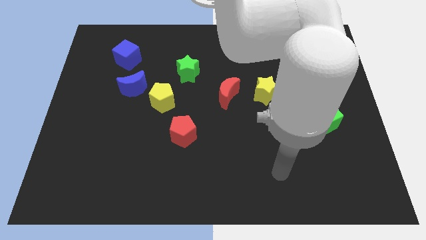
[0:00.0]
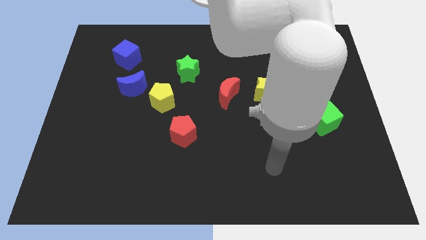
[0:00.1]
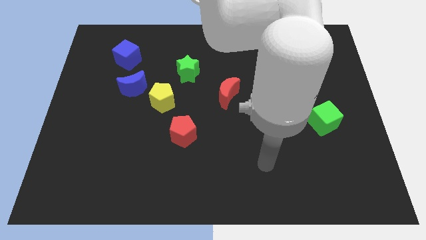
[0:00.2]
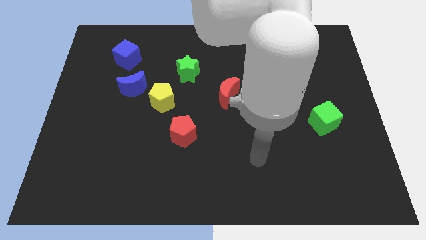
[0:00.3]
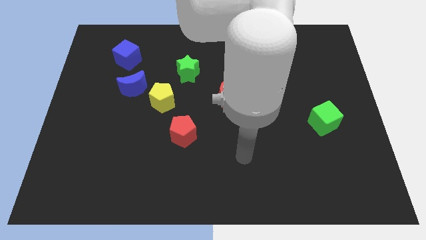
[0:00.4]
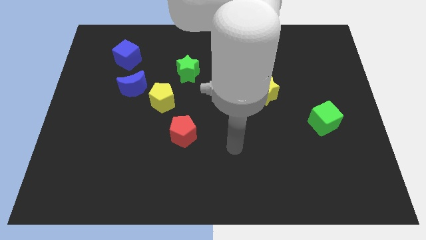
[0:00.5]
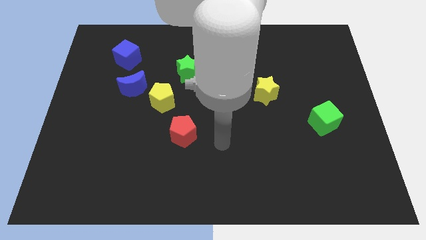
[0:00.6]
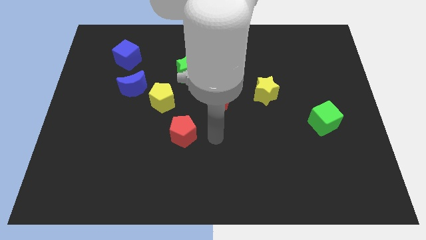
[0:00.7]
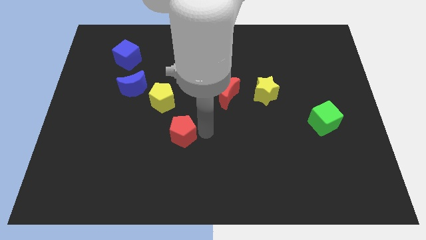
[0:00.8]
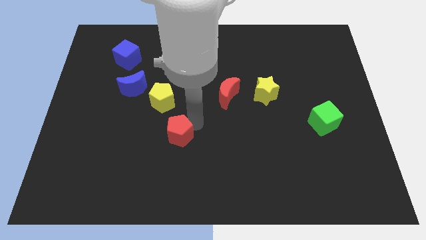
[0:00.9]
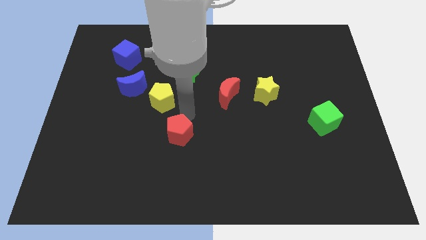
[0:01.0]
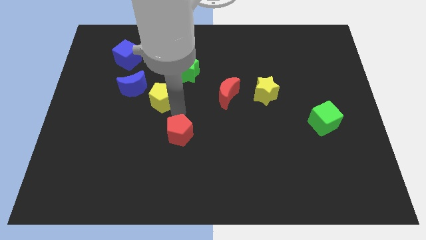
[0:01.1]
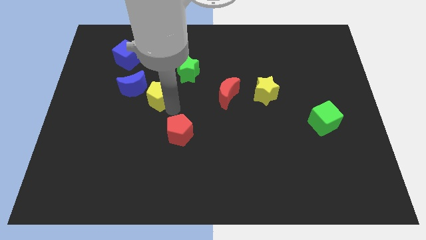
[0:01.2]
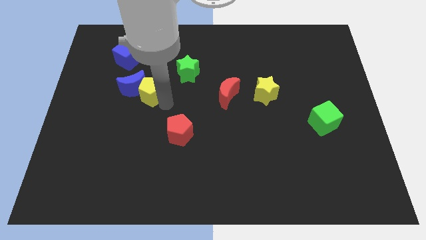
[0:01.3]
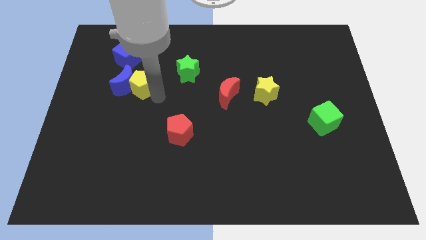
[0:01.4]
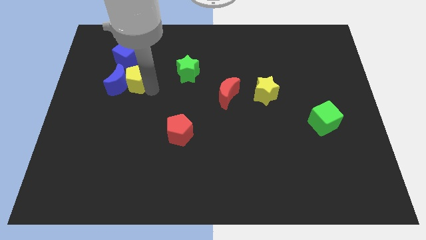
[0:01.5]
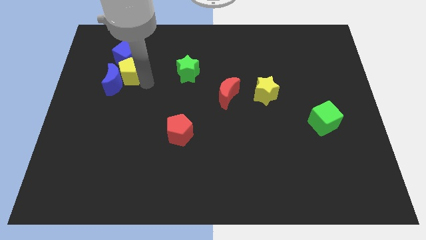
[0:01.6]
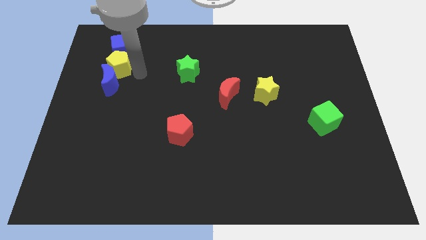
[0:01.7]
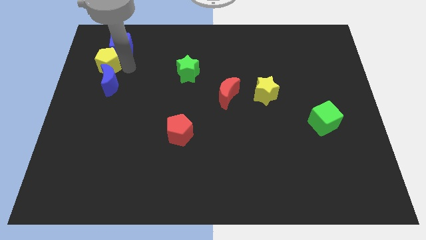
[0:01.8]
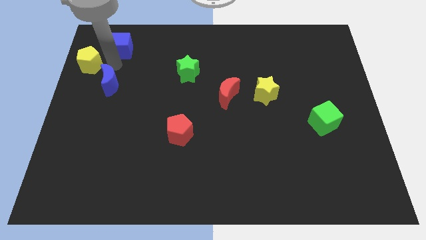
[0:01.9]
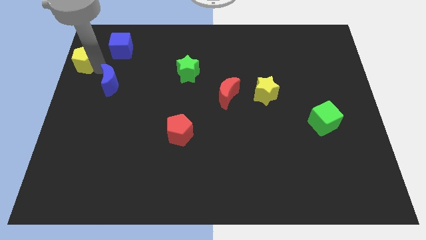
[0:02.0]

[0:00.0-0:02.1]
pull the blue moon apart from the yellow pentagon

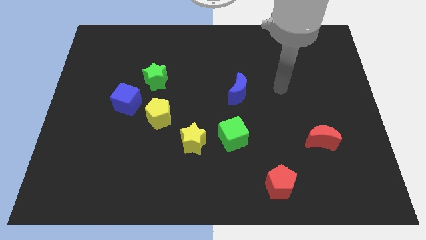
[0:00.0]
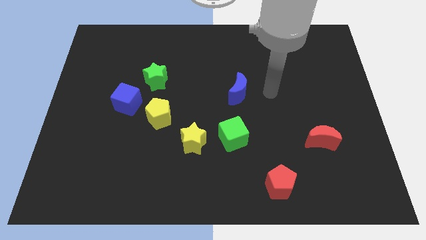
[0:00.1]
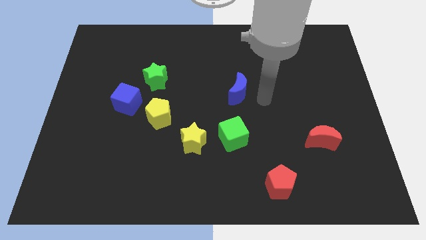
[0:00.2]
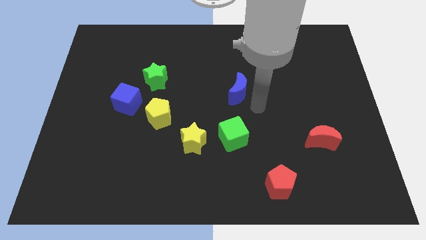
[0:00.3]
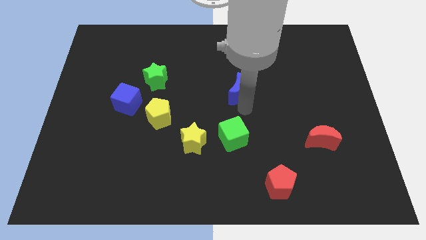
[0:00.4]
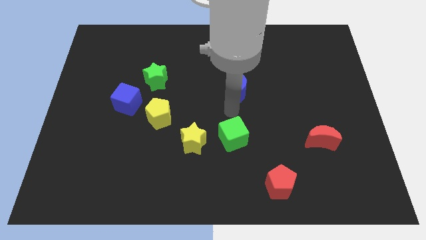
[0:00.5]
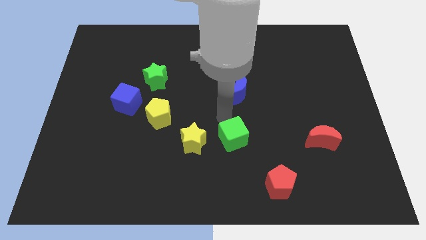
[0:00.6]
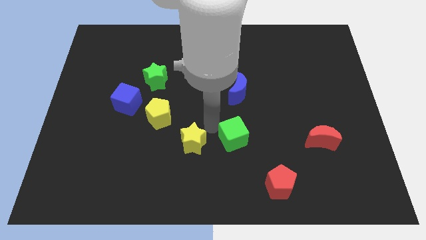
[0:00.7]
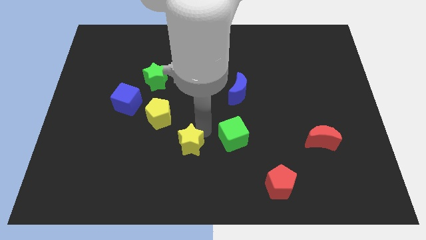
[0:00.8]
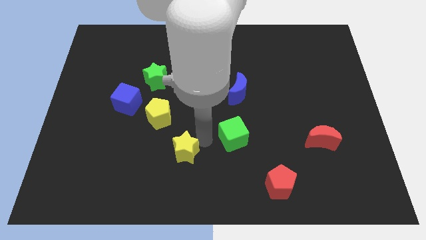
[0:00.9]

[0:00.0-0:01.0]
pull the green cube apart from the yellow star

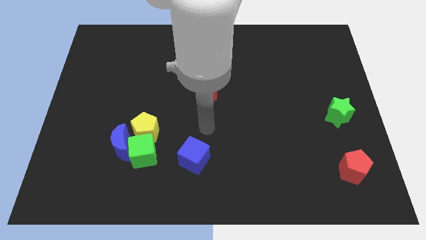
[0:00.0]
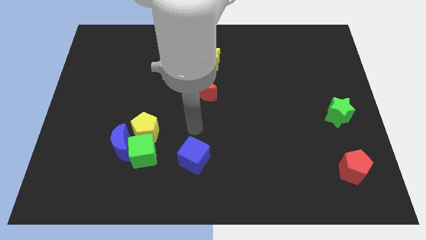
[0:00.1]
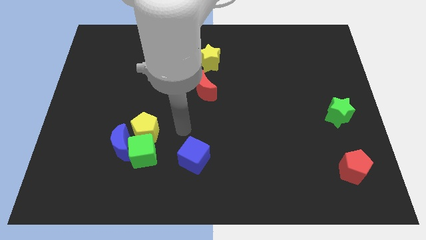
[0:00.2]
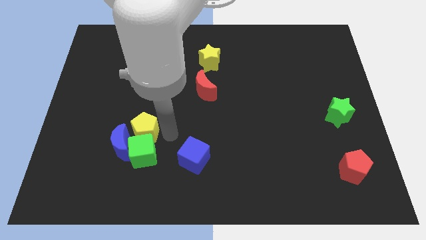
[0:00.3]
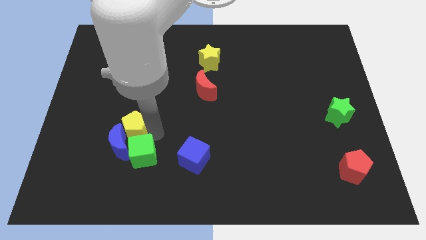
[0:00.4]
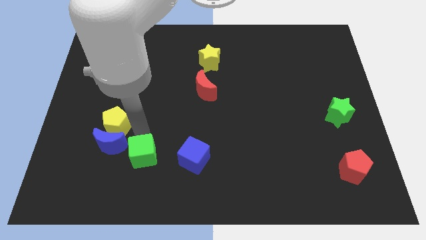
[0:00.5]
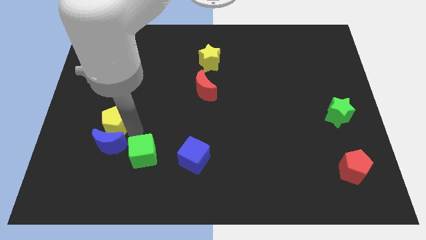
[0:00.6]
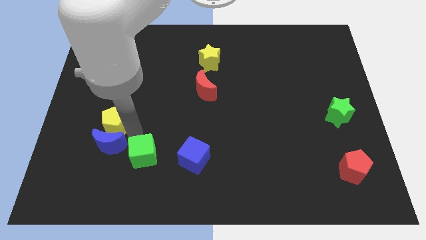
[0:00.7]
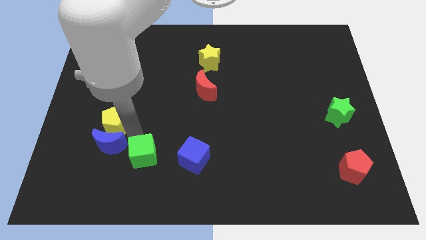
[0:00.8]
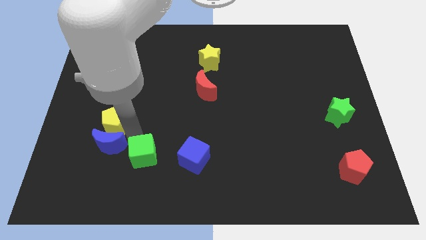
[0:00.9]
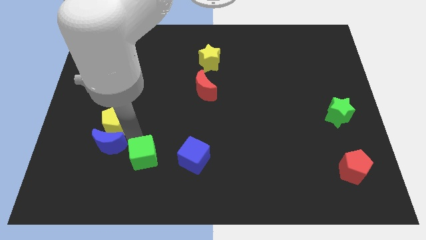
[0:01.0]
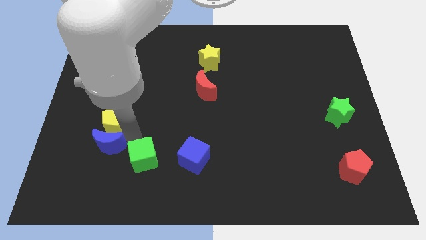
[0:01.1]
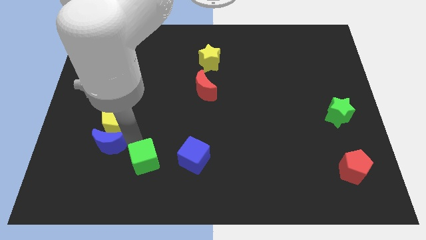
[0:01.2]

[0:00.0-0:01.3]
pull the green cube apart from the blue moon and yellow pentagon

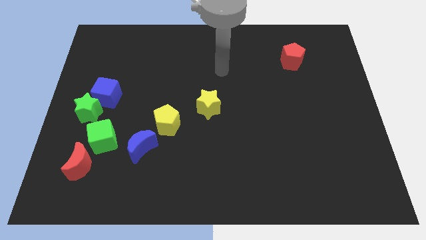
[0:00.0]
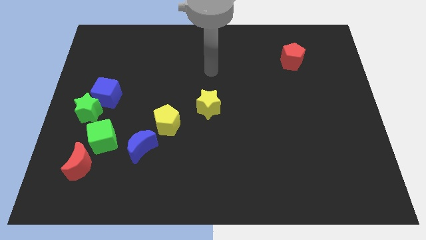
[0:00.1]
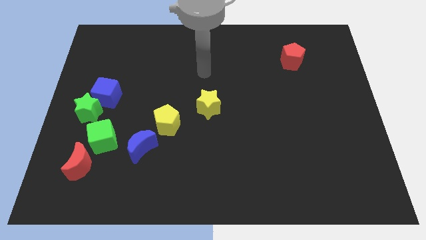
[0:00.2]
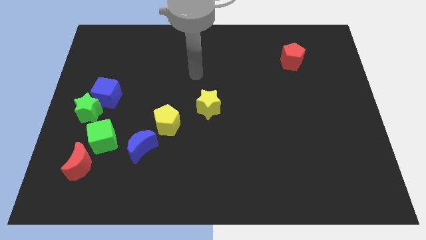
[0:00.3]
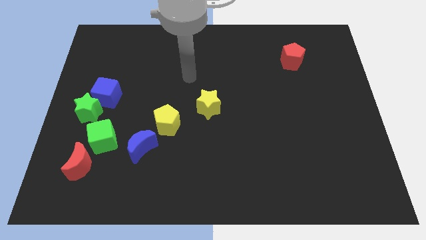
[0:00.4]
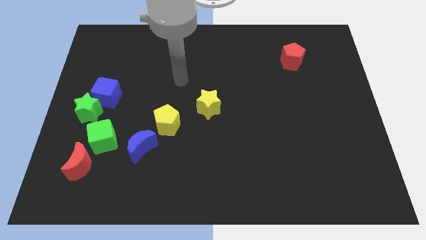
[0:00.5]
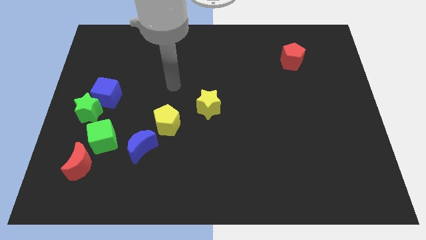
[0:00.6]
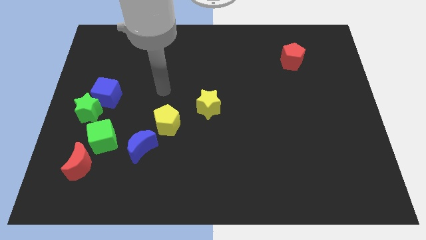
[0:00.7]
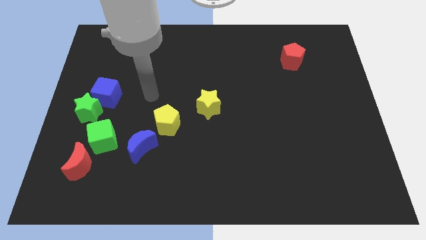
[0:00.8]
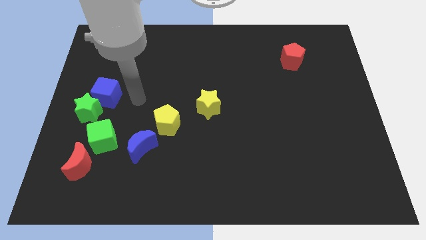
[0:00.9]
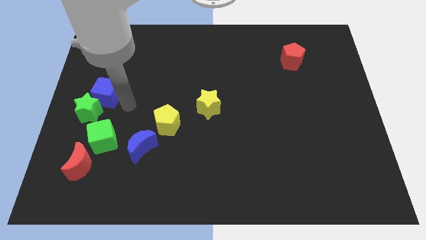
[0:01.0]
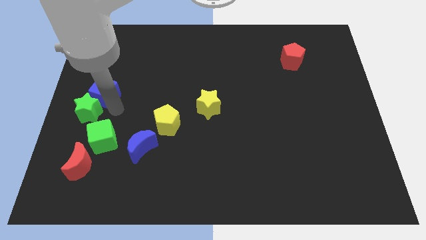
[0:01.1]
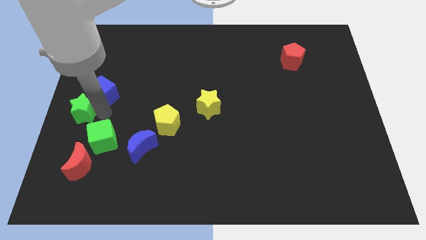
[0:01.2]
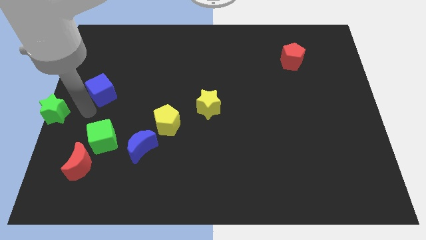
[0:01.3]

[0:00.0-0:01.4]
pull the blue cube apart from the green star

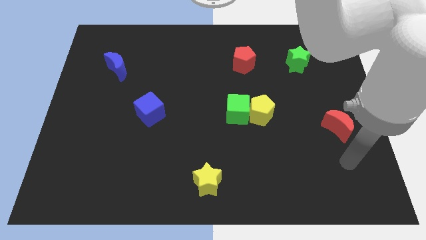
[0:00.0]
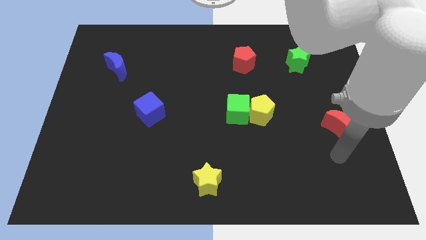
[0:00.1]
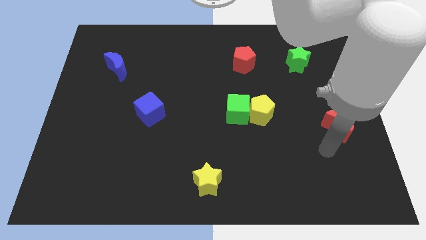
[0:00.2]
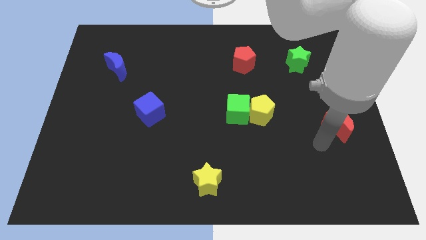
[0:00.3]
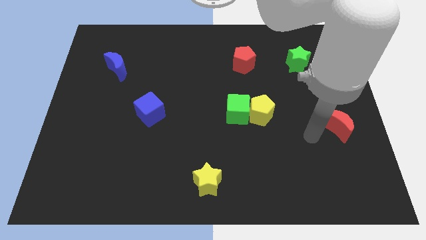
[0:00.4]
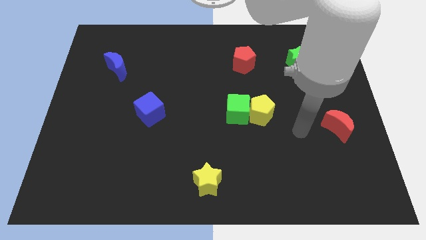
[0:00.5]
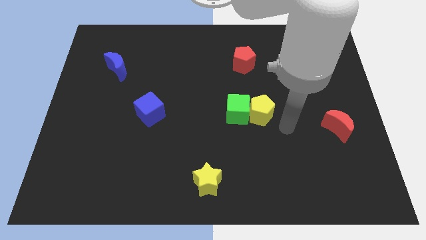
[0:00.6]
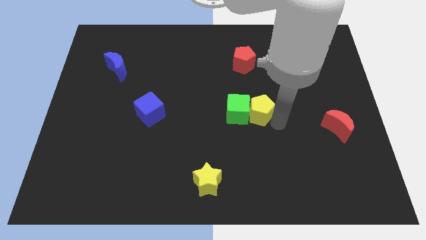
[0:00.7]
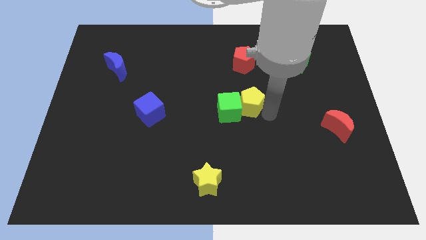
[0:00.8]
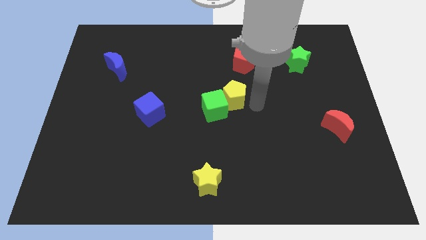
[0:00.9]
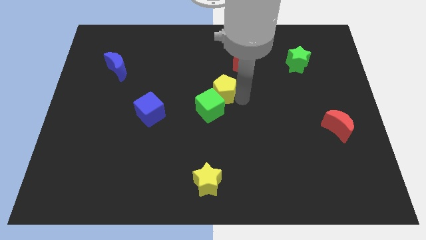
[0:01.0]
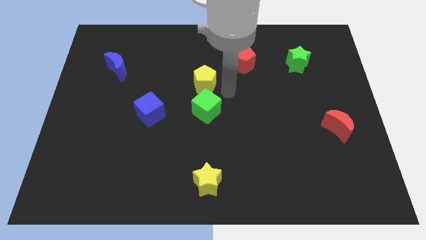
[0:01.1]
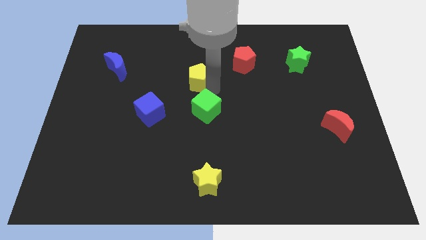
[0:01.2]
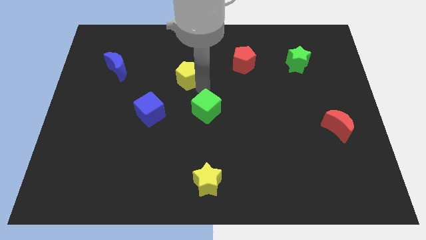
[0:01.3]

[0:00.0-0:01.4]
pull the green cube apart from the yellow pentagon

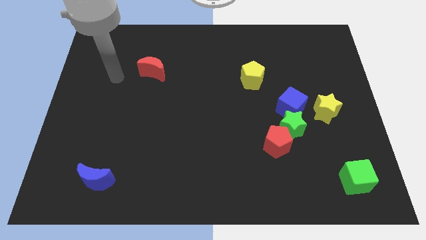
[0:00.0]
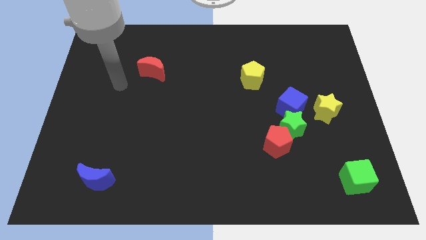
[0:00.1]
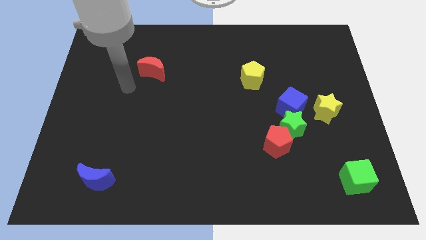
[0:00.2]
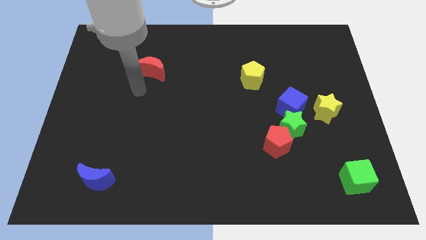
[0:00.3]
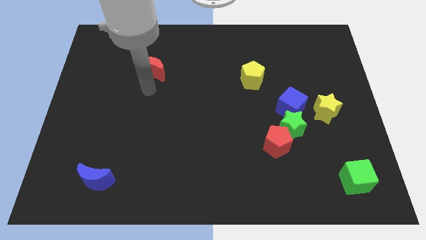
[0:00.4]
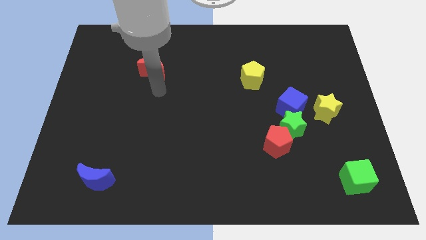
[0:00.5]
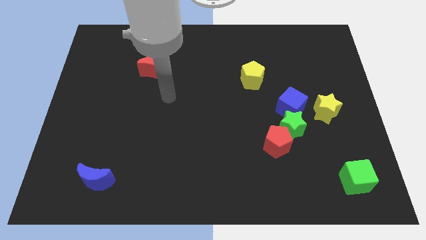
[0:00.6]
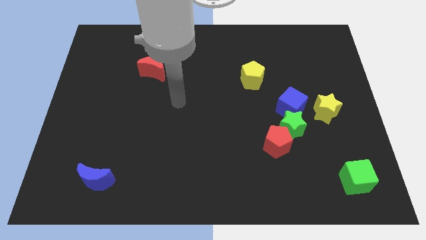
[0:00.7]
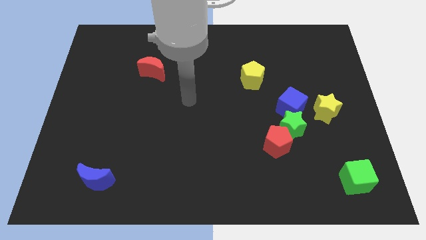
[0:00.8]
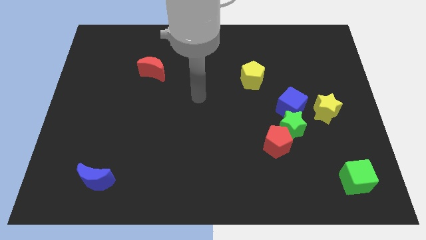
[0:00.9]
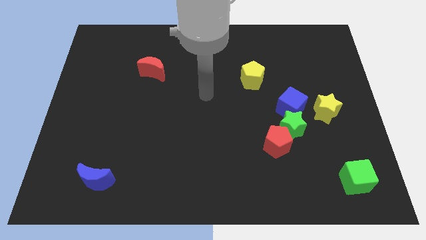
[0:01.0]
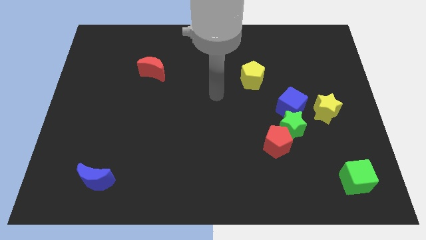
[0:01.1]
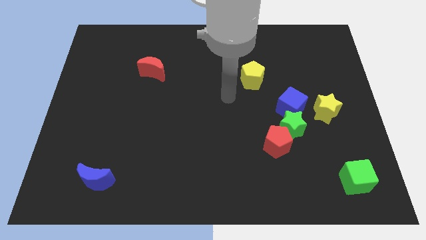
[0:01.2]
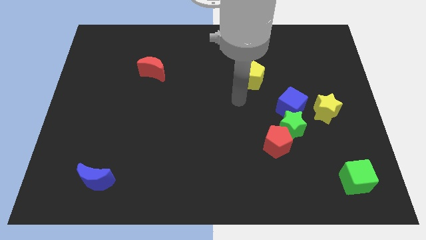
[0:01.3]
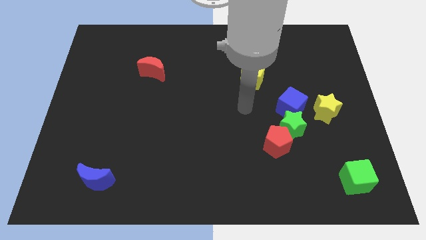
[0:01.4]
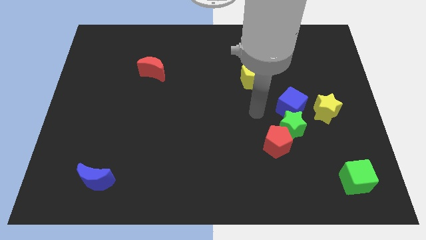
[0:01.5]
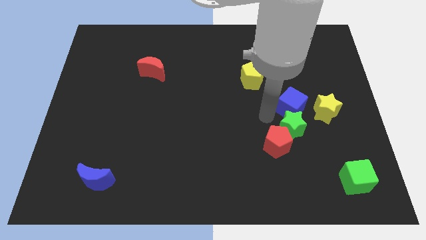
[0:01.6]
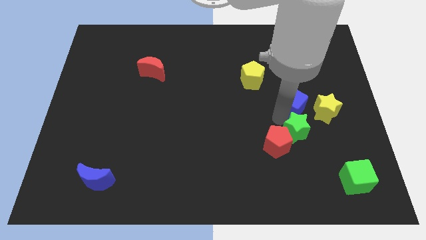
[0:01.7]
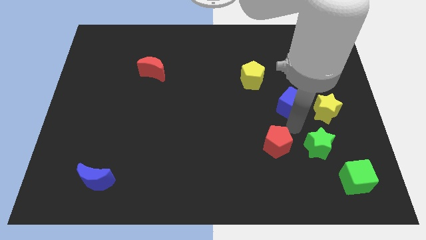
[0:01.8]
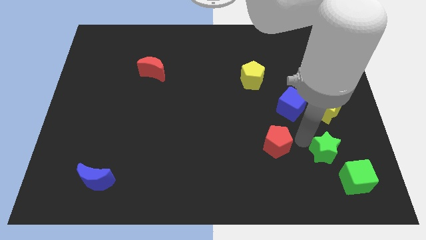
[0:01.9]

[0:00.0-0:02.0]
pull the red pentagon apart from the green star

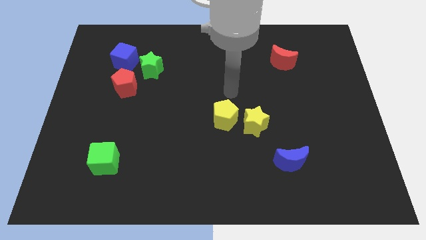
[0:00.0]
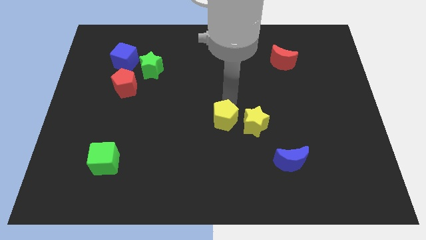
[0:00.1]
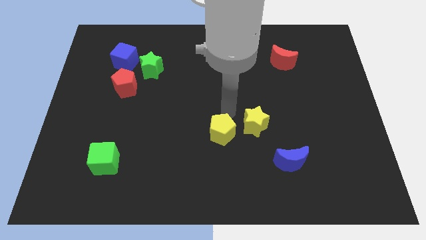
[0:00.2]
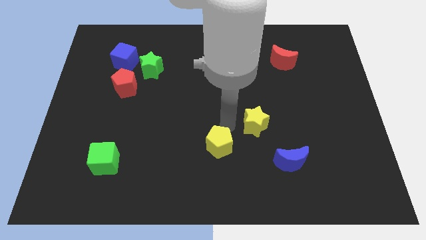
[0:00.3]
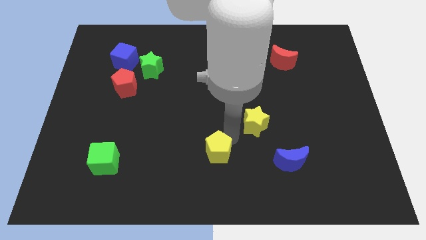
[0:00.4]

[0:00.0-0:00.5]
pull the yellow star apart from the yellow pentagon
